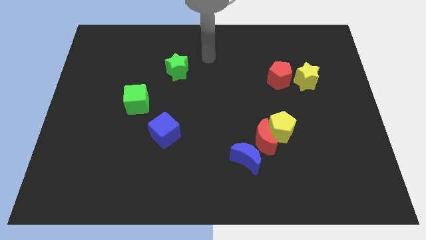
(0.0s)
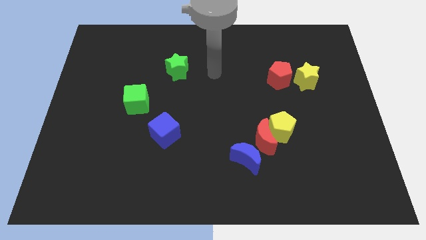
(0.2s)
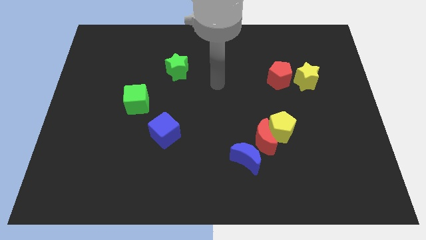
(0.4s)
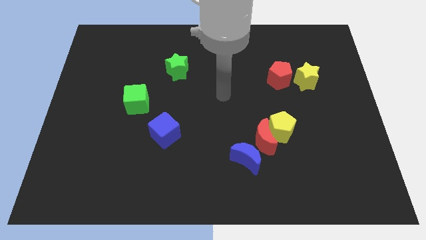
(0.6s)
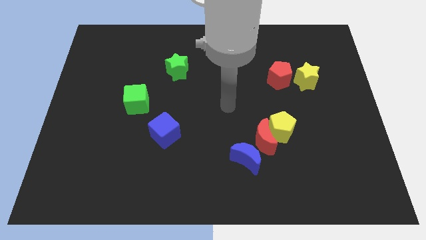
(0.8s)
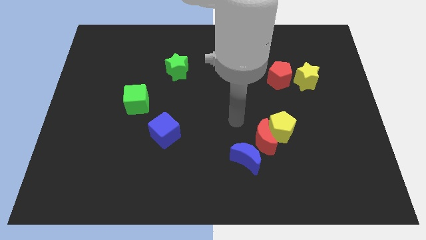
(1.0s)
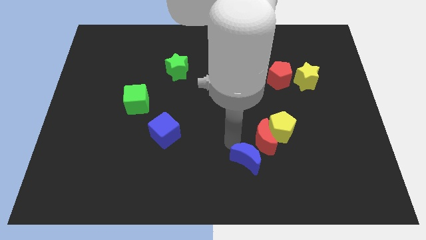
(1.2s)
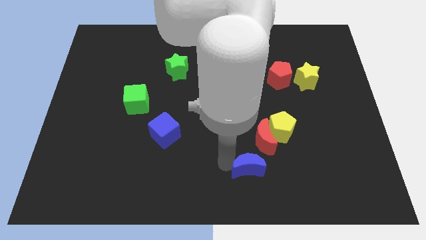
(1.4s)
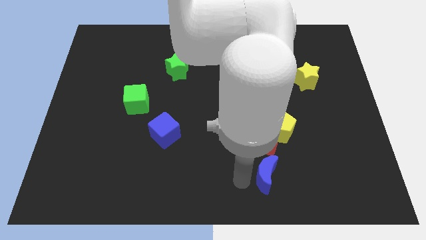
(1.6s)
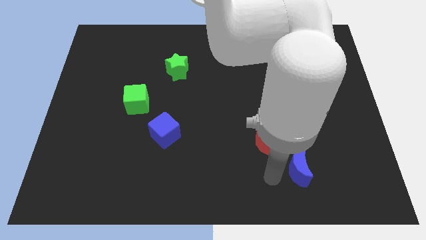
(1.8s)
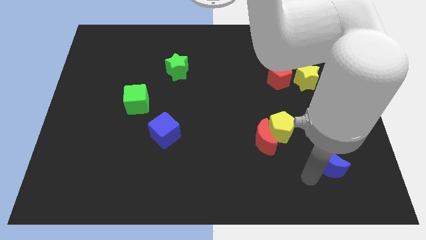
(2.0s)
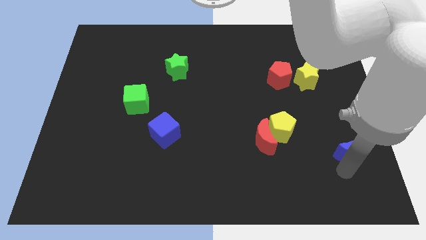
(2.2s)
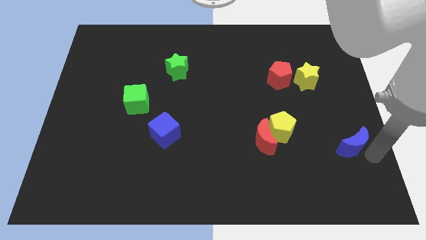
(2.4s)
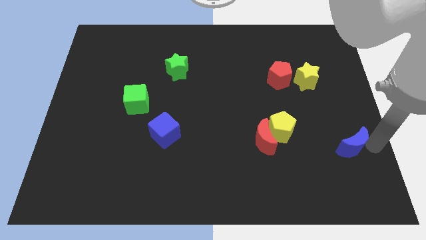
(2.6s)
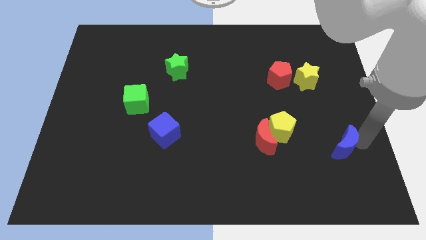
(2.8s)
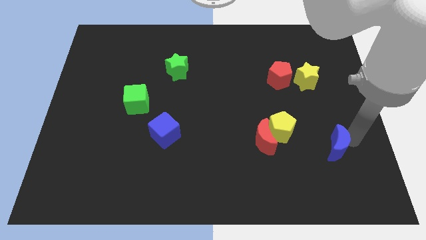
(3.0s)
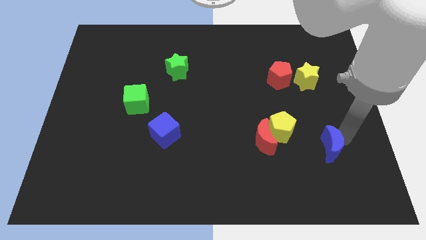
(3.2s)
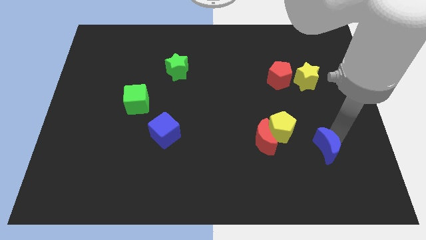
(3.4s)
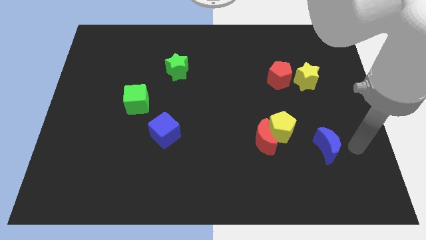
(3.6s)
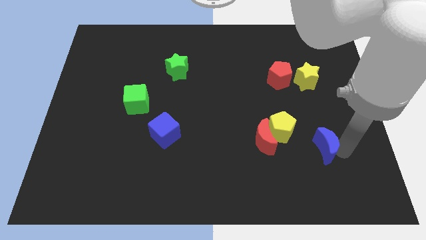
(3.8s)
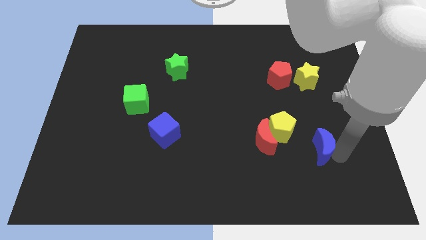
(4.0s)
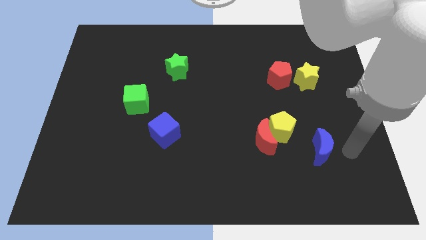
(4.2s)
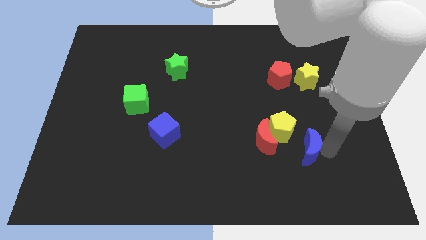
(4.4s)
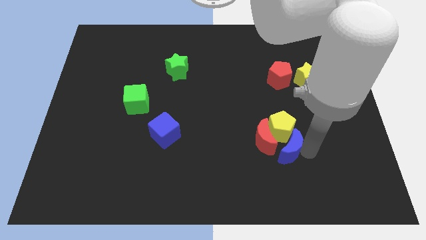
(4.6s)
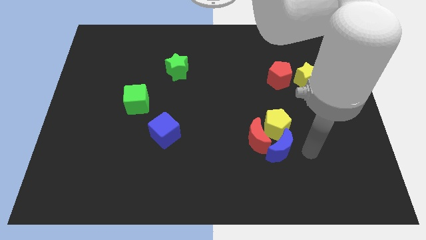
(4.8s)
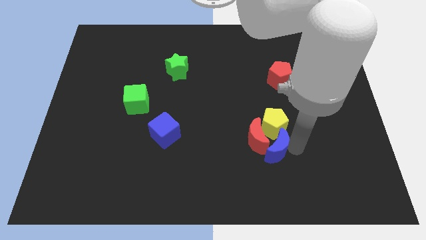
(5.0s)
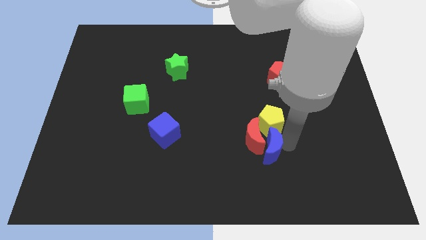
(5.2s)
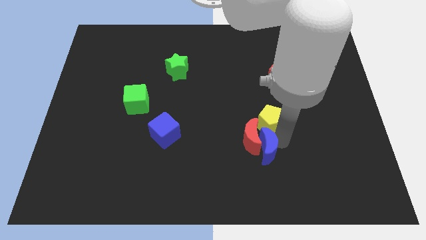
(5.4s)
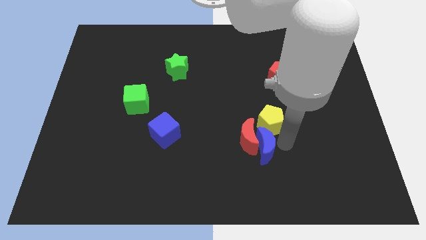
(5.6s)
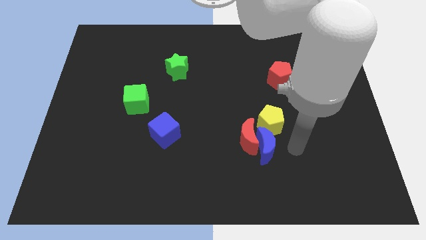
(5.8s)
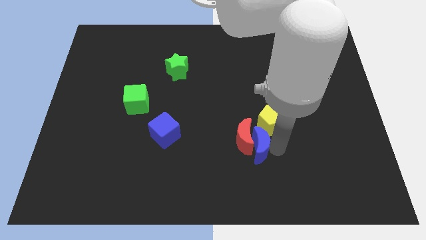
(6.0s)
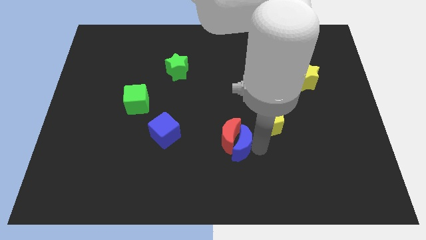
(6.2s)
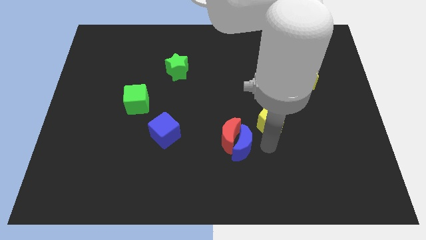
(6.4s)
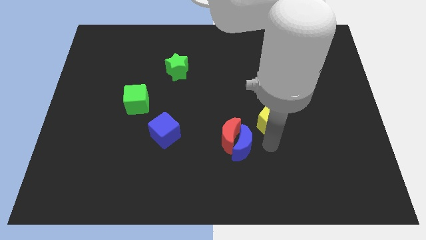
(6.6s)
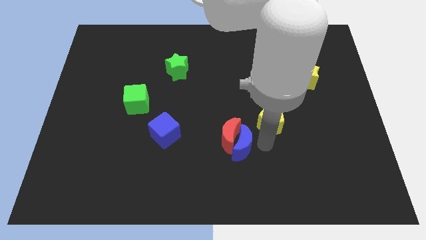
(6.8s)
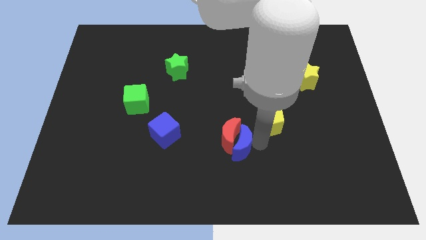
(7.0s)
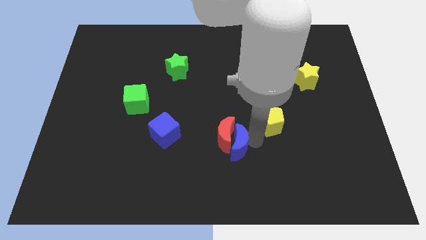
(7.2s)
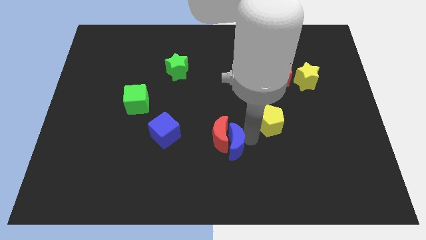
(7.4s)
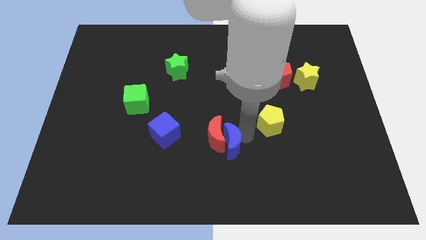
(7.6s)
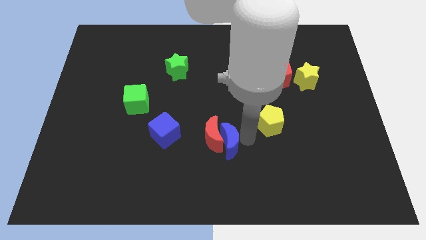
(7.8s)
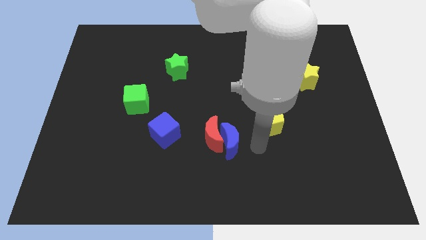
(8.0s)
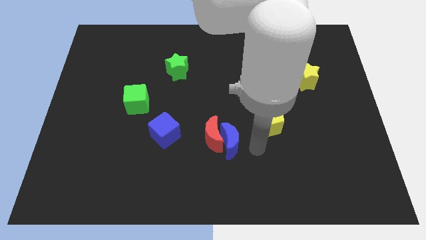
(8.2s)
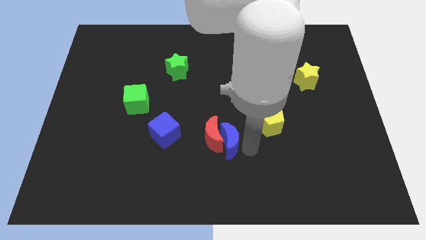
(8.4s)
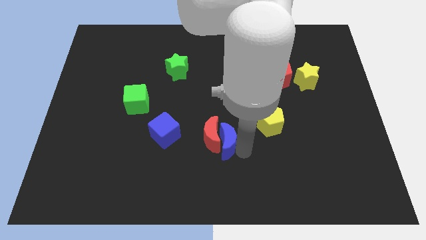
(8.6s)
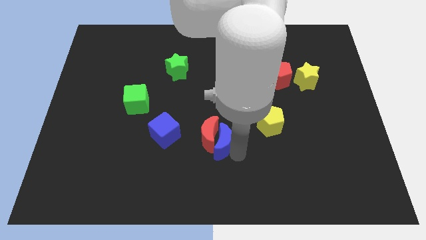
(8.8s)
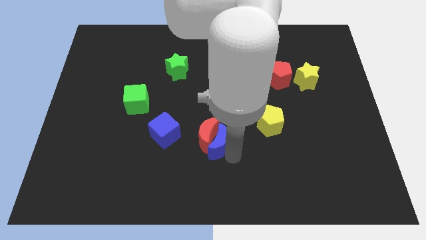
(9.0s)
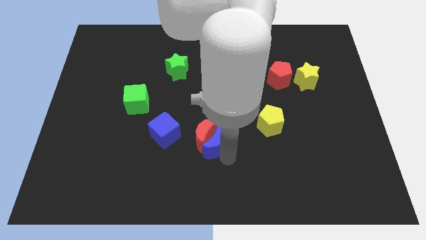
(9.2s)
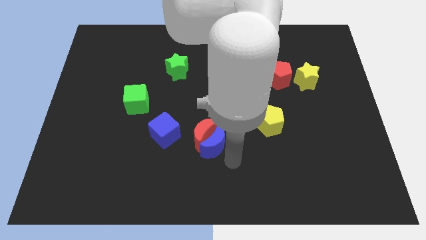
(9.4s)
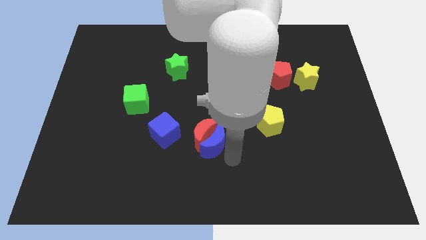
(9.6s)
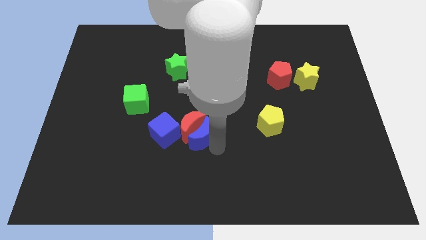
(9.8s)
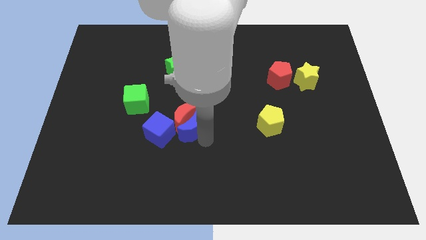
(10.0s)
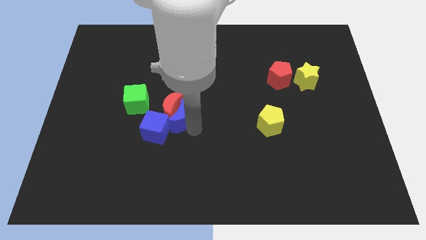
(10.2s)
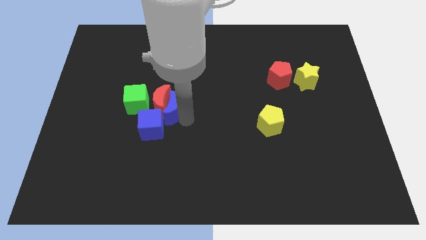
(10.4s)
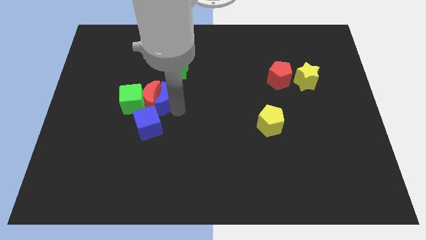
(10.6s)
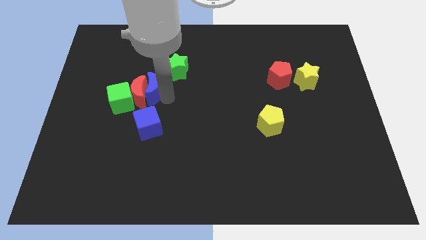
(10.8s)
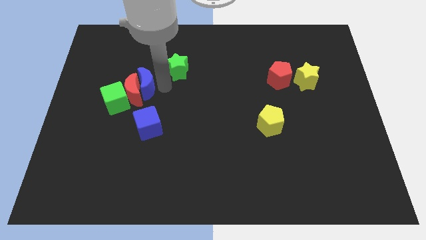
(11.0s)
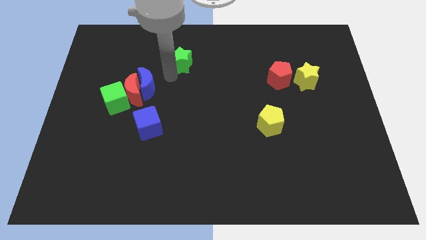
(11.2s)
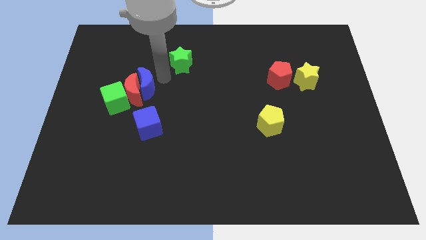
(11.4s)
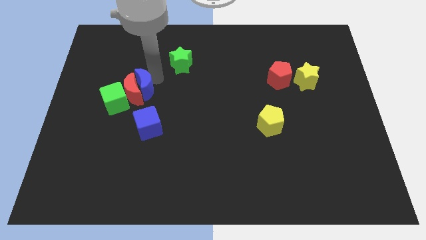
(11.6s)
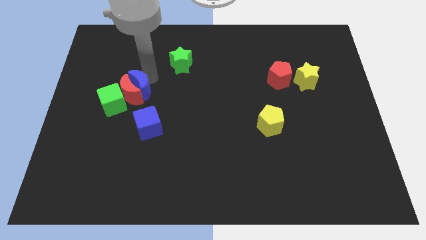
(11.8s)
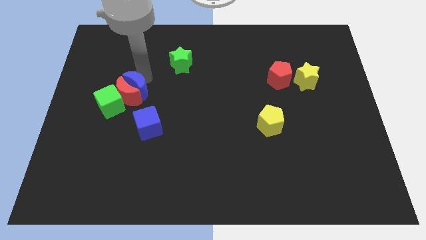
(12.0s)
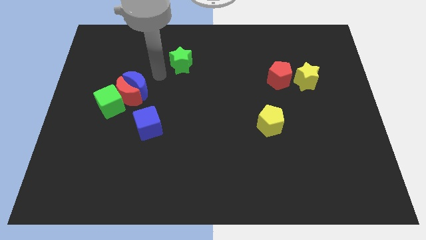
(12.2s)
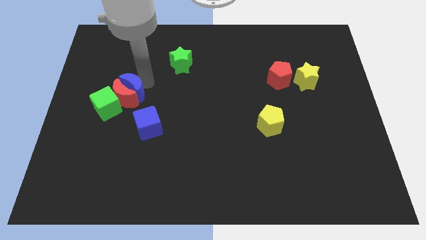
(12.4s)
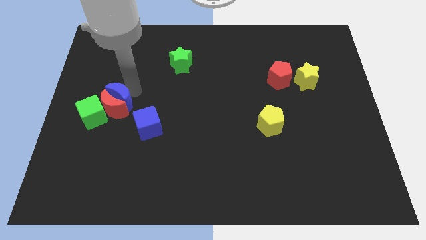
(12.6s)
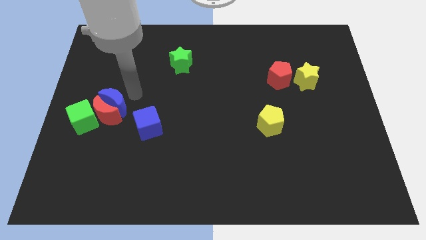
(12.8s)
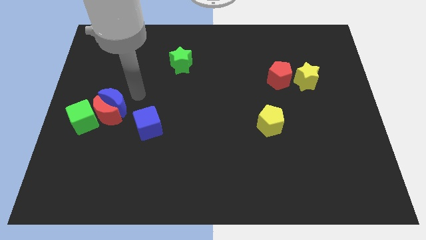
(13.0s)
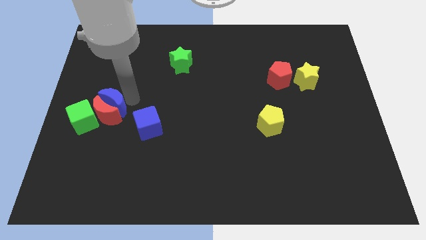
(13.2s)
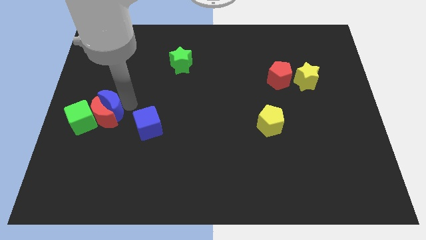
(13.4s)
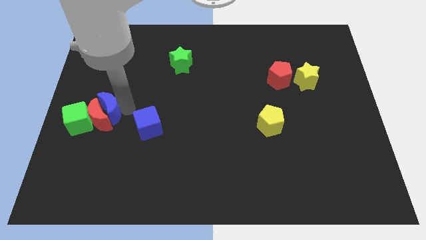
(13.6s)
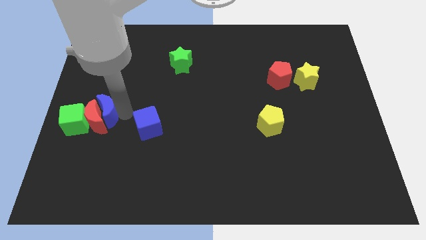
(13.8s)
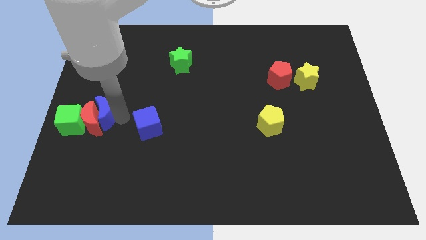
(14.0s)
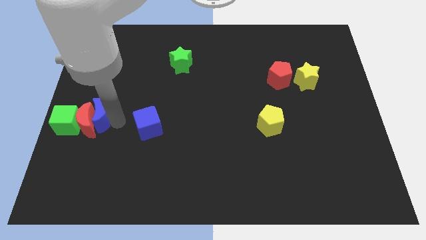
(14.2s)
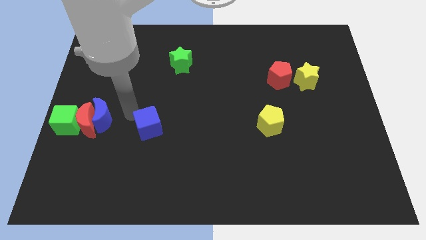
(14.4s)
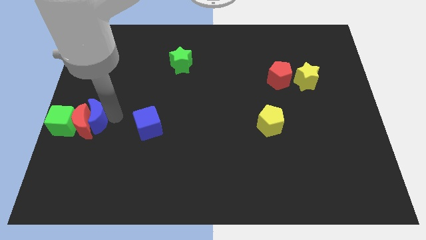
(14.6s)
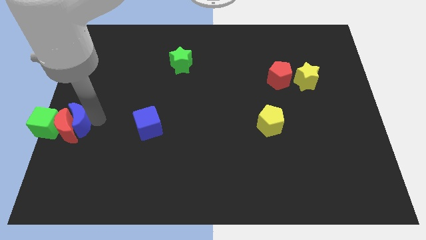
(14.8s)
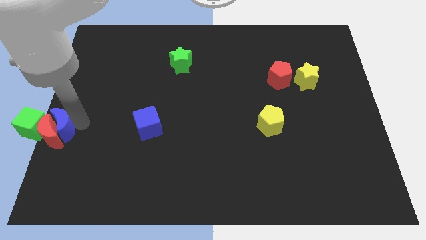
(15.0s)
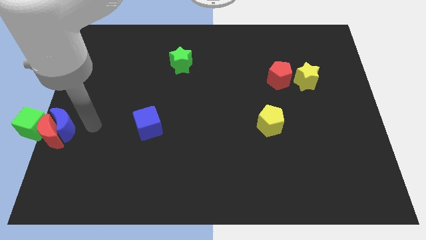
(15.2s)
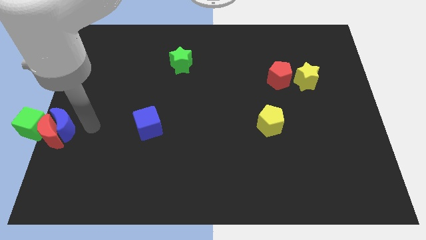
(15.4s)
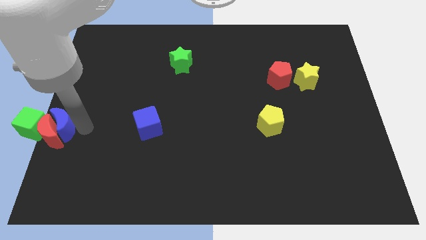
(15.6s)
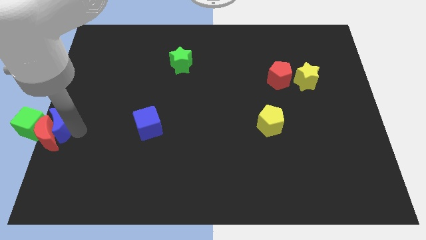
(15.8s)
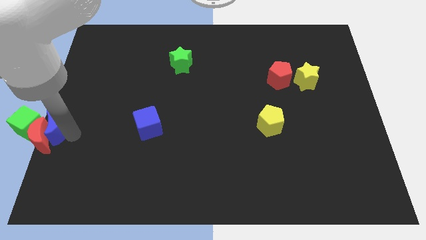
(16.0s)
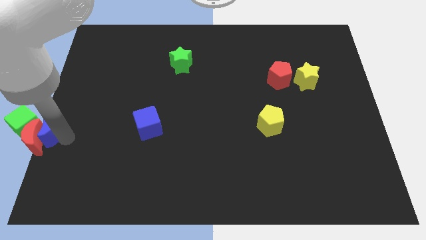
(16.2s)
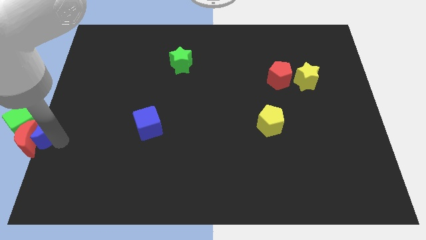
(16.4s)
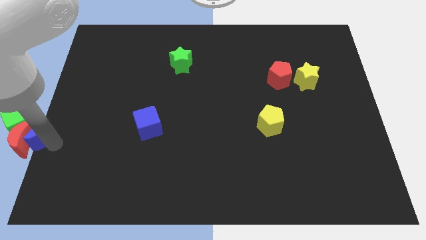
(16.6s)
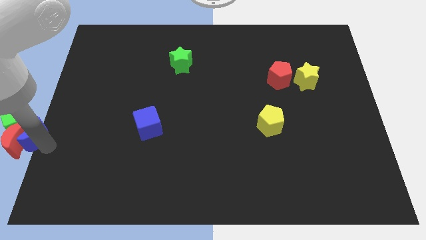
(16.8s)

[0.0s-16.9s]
push the blue moon towards the green cube
